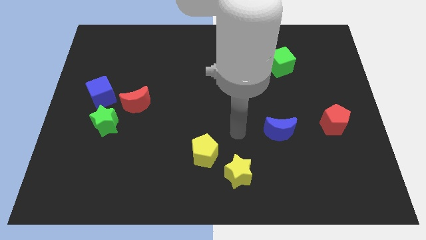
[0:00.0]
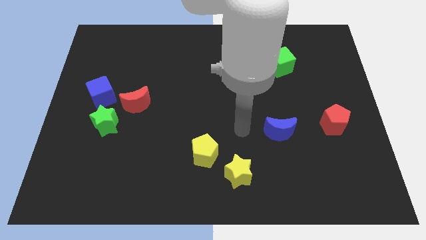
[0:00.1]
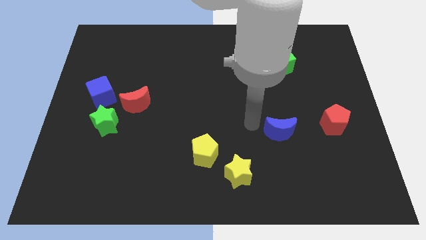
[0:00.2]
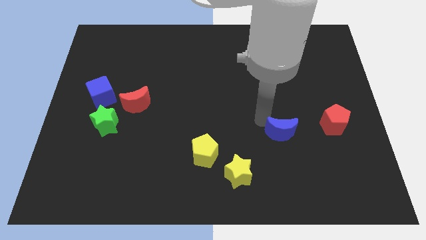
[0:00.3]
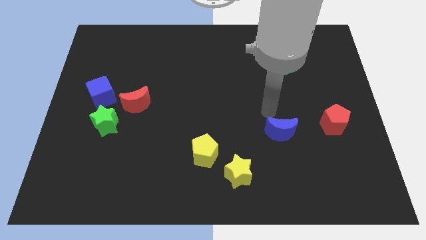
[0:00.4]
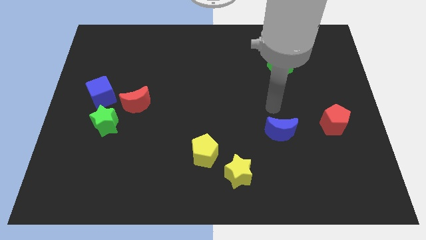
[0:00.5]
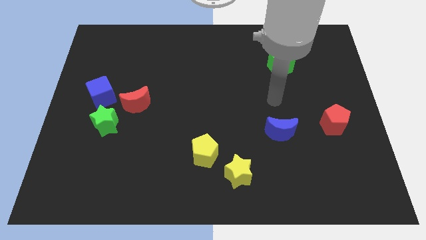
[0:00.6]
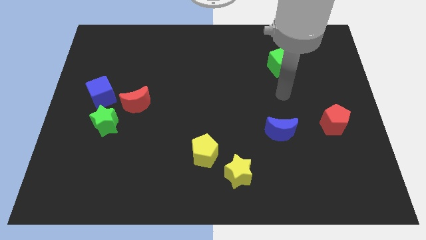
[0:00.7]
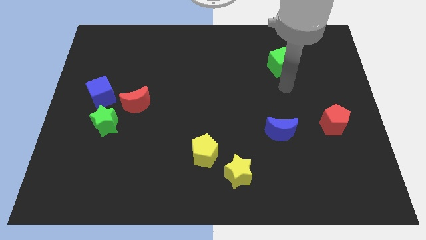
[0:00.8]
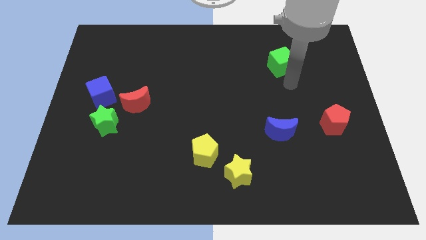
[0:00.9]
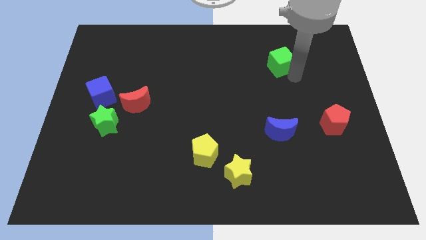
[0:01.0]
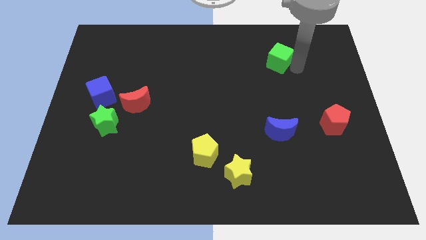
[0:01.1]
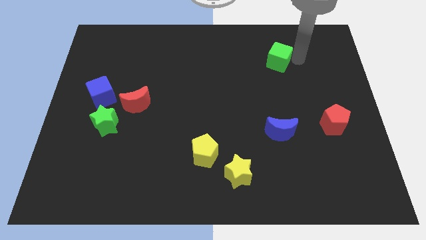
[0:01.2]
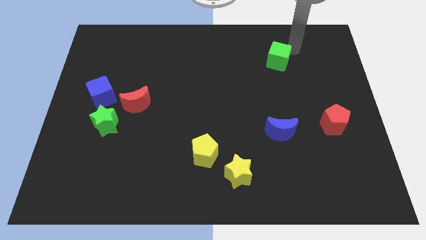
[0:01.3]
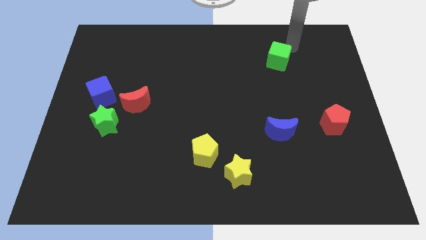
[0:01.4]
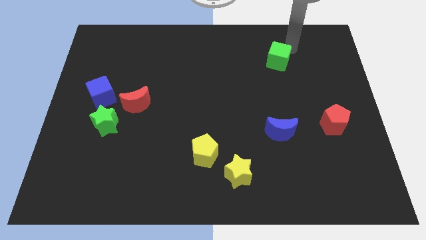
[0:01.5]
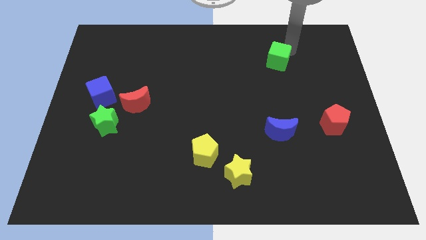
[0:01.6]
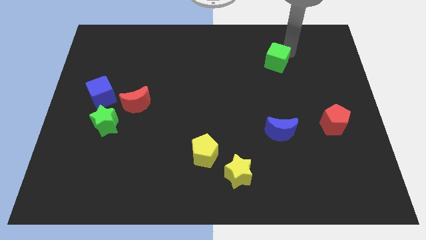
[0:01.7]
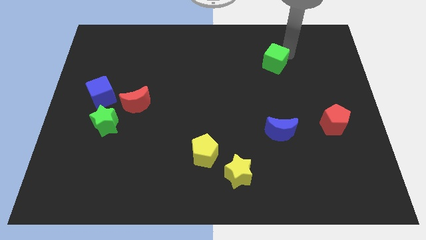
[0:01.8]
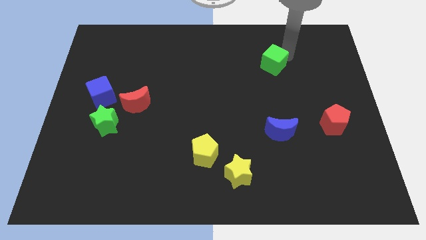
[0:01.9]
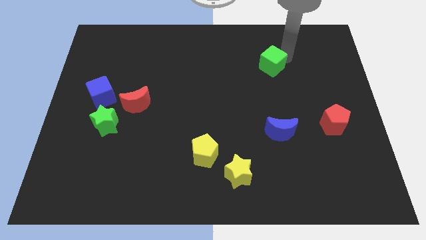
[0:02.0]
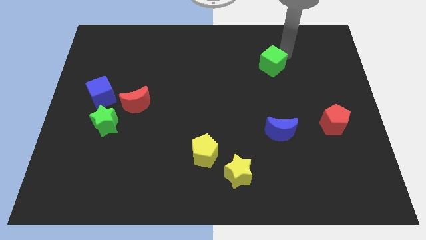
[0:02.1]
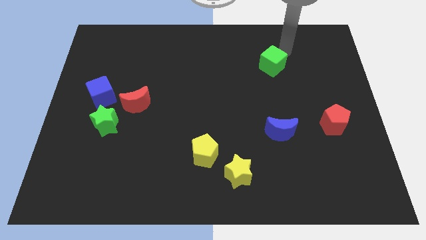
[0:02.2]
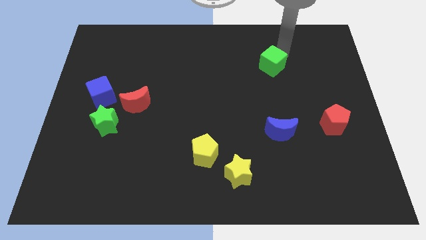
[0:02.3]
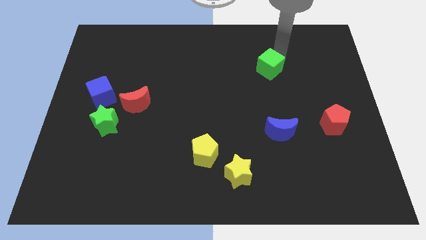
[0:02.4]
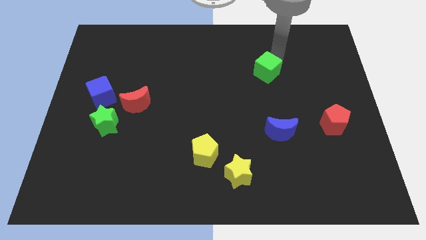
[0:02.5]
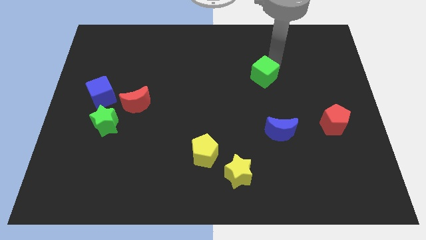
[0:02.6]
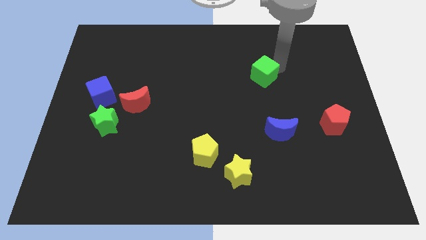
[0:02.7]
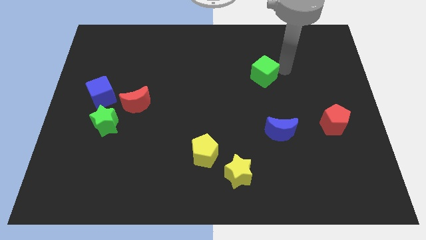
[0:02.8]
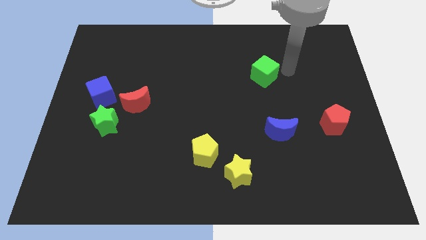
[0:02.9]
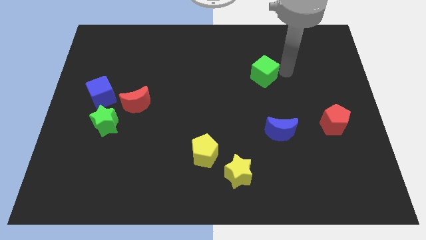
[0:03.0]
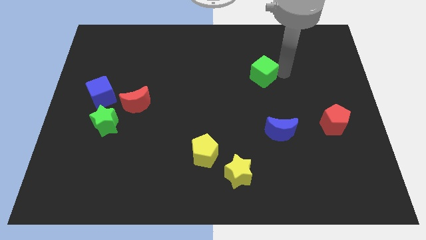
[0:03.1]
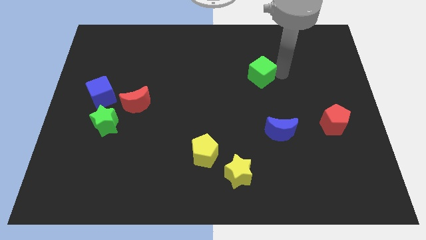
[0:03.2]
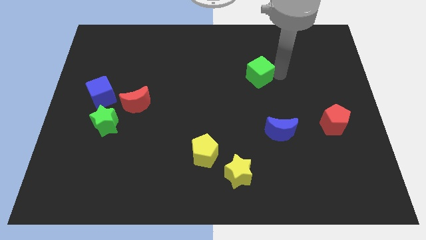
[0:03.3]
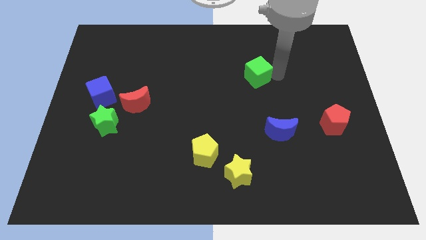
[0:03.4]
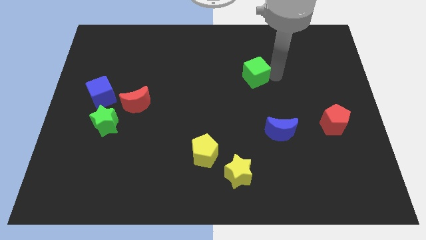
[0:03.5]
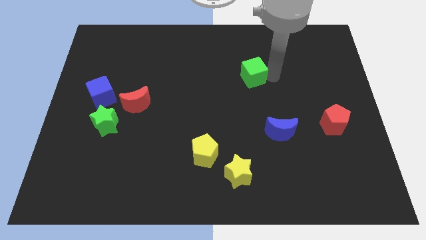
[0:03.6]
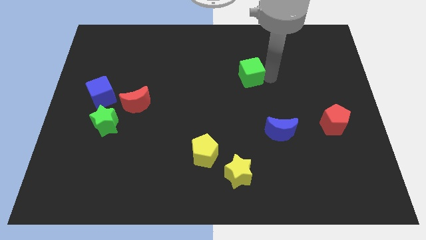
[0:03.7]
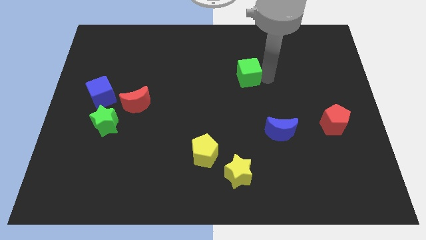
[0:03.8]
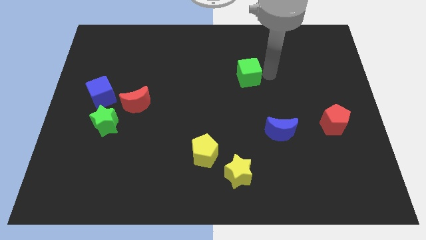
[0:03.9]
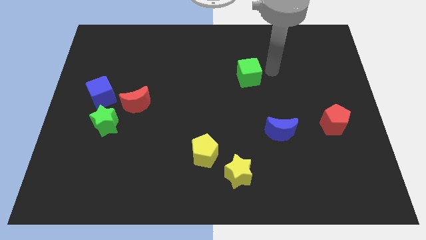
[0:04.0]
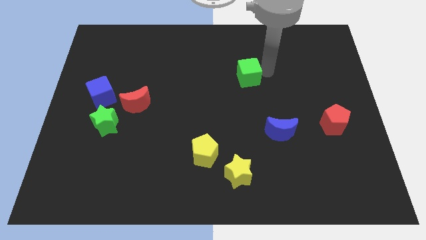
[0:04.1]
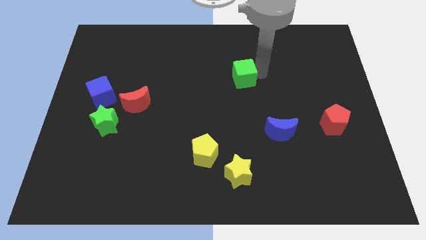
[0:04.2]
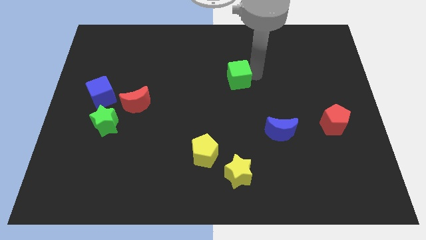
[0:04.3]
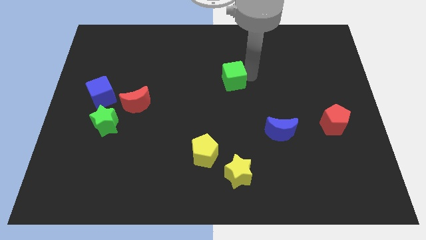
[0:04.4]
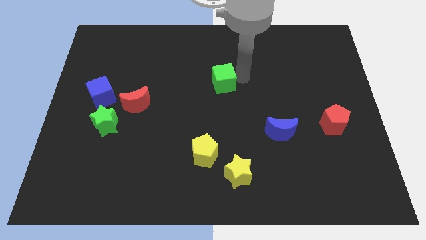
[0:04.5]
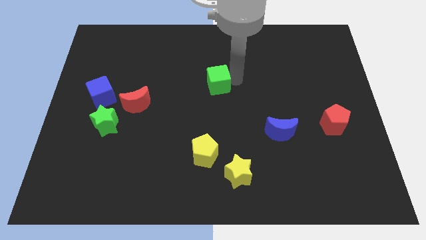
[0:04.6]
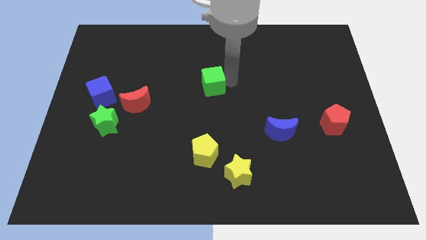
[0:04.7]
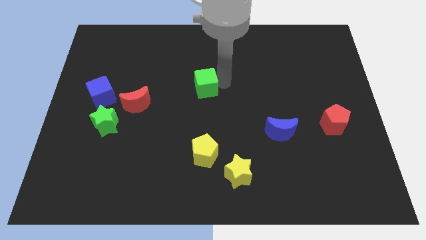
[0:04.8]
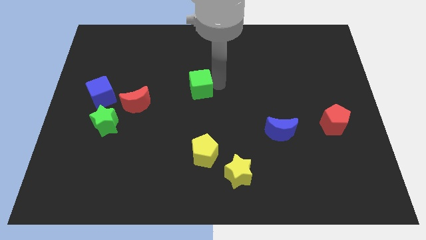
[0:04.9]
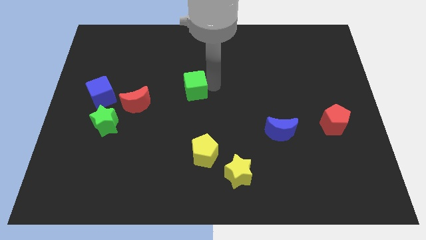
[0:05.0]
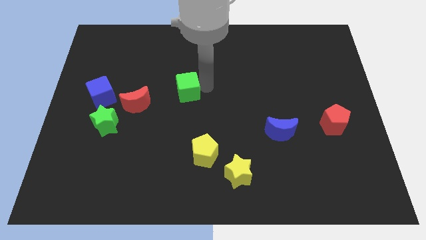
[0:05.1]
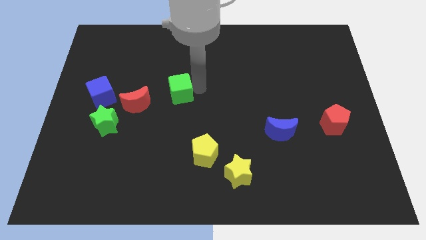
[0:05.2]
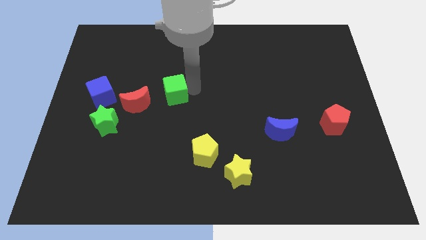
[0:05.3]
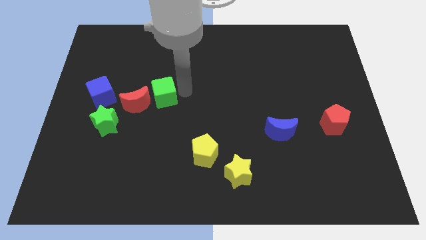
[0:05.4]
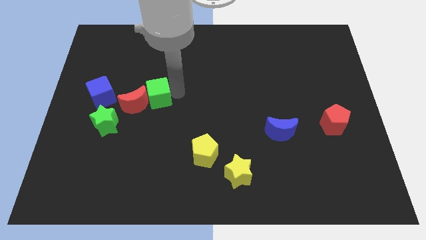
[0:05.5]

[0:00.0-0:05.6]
move the green cube close to the red moon

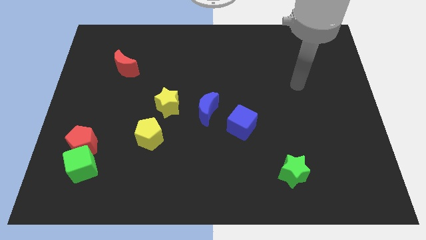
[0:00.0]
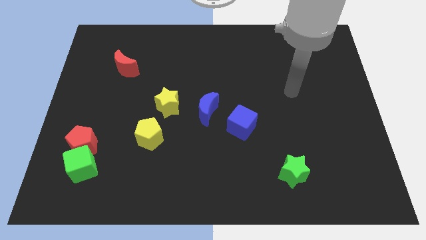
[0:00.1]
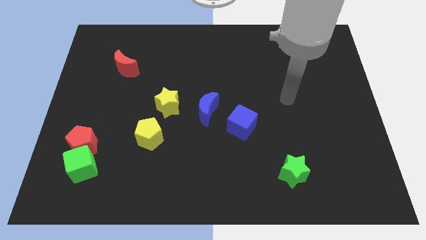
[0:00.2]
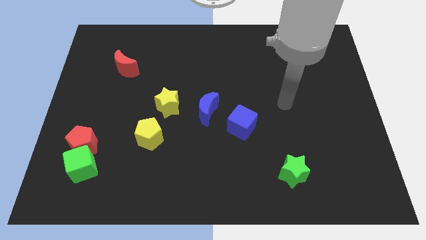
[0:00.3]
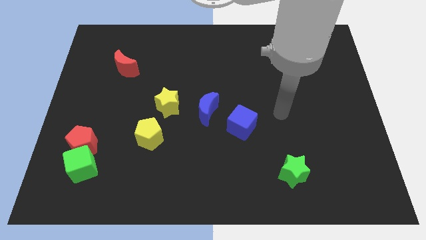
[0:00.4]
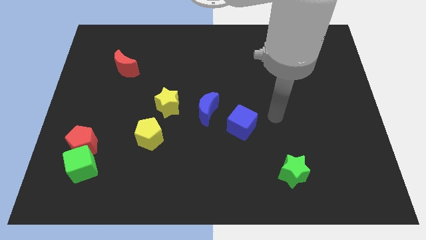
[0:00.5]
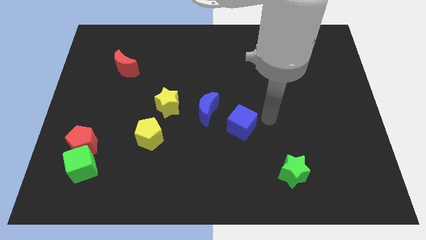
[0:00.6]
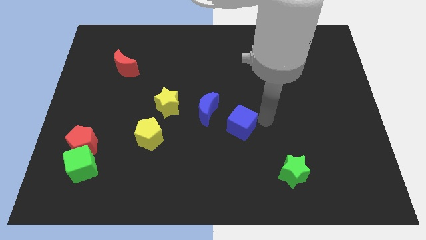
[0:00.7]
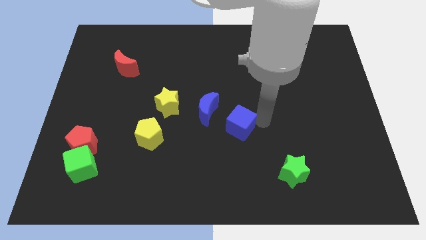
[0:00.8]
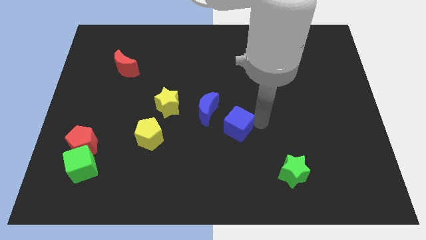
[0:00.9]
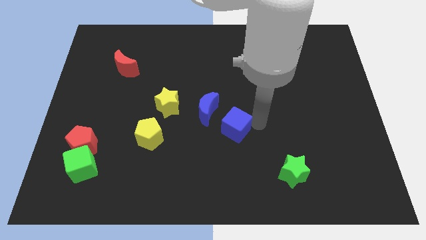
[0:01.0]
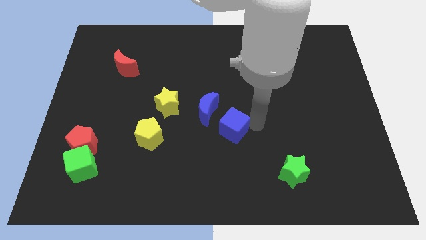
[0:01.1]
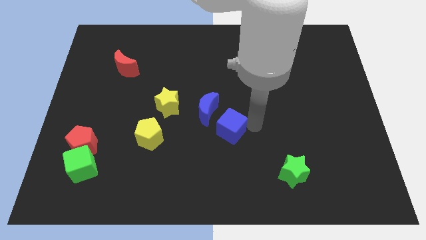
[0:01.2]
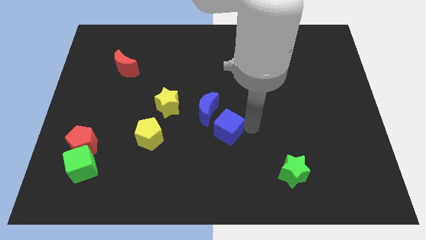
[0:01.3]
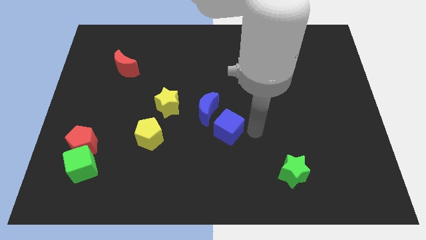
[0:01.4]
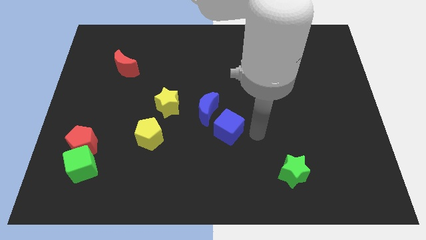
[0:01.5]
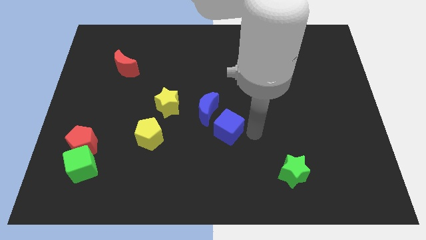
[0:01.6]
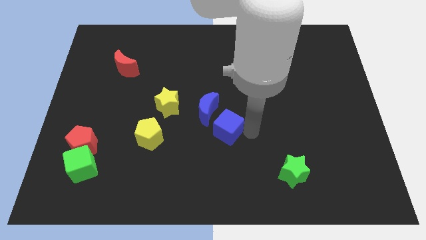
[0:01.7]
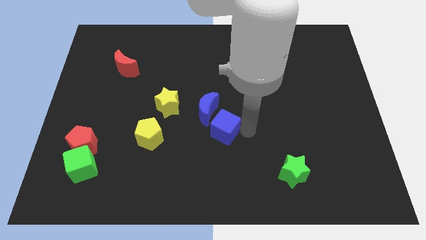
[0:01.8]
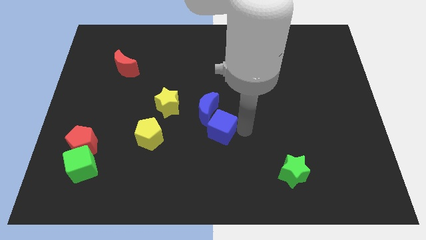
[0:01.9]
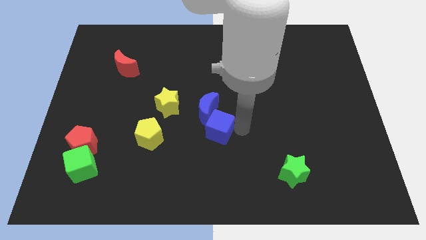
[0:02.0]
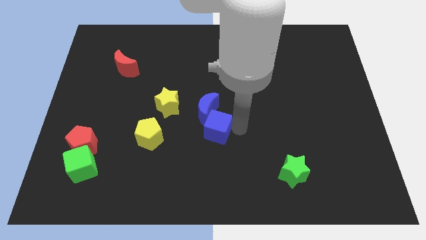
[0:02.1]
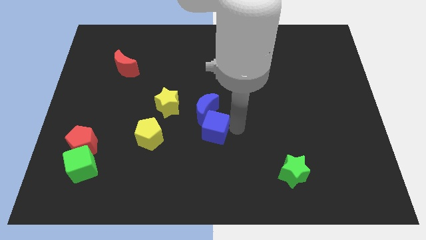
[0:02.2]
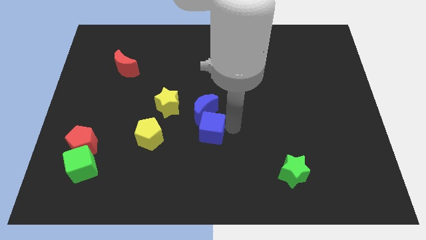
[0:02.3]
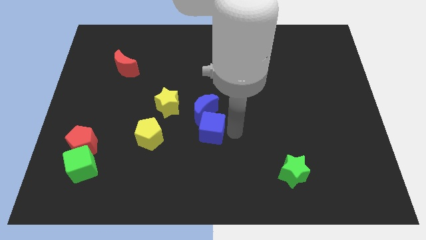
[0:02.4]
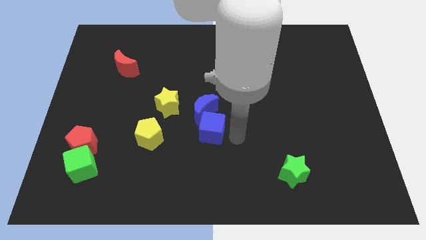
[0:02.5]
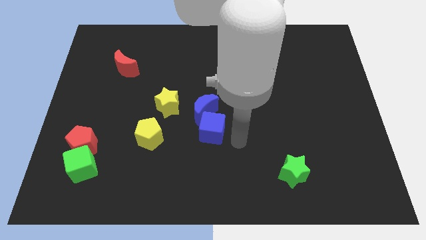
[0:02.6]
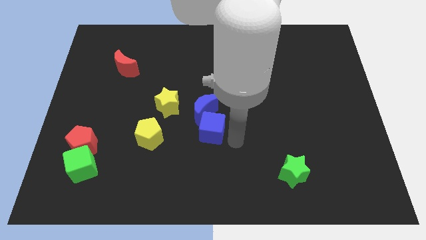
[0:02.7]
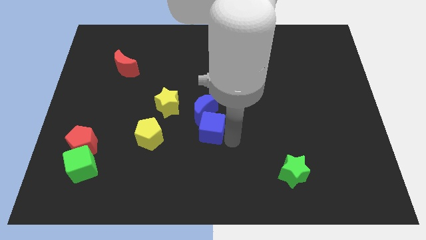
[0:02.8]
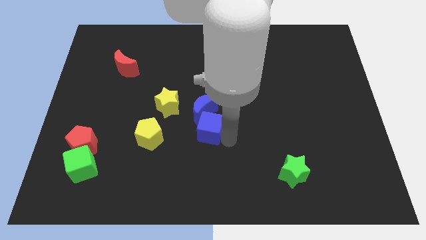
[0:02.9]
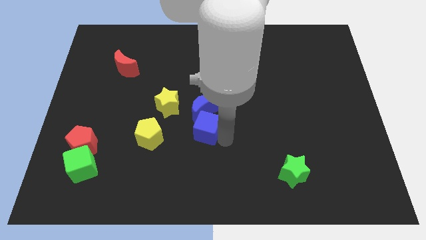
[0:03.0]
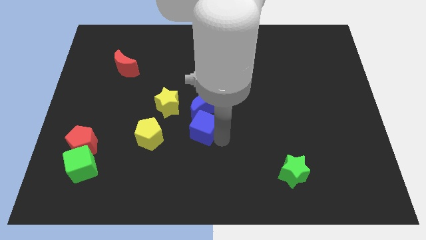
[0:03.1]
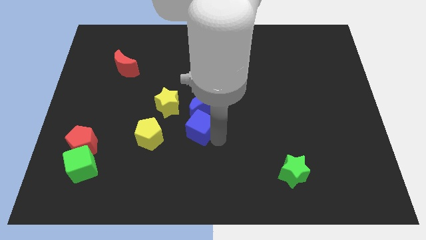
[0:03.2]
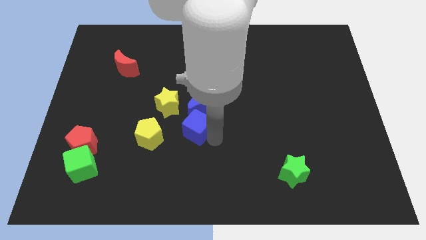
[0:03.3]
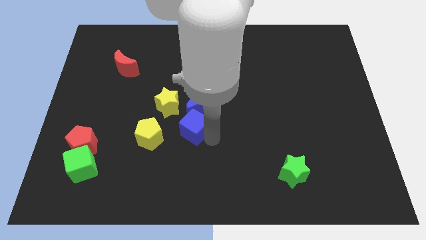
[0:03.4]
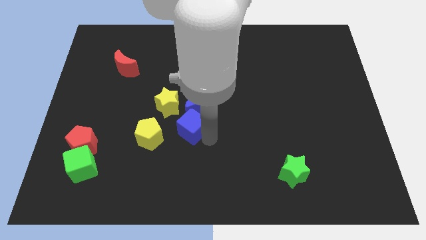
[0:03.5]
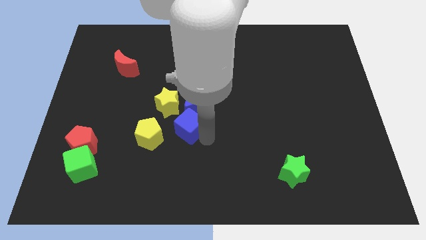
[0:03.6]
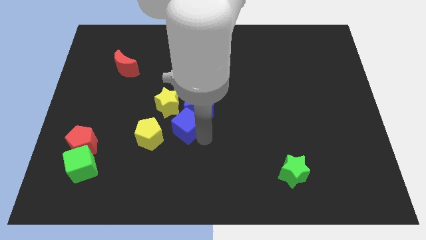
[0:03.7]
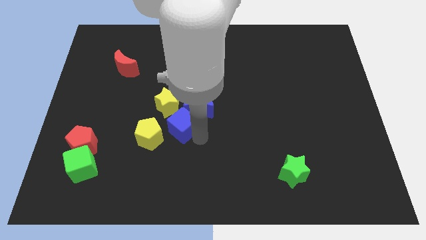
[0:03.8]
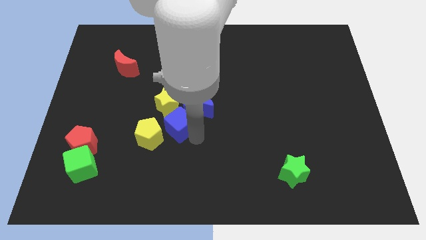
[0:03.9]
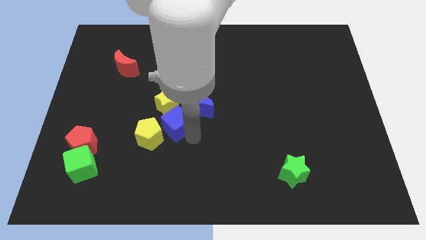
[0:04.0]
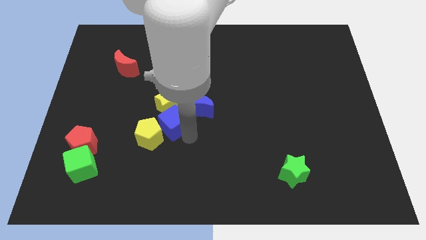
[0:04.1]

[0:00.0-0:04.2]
push the blue cube close to the yellow star
